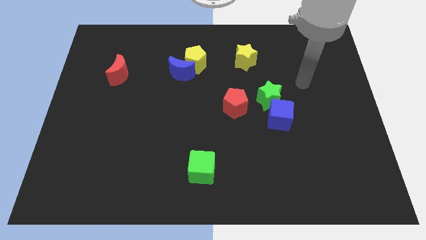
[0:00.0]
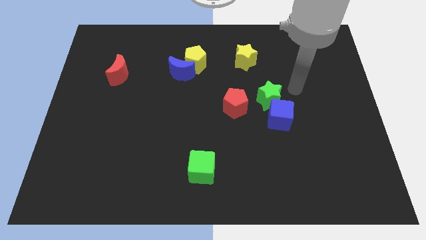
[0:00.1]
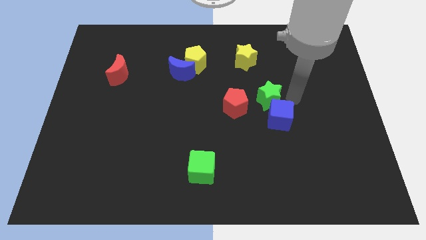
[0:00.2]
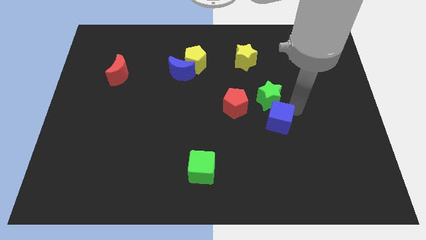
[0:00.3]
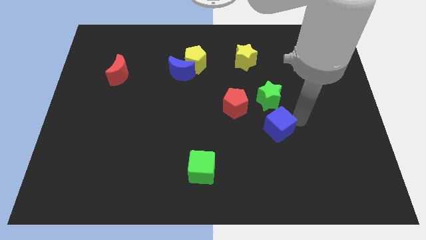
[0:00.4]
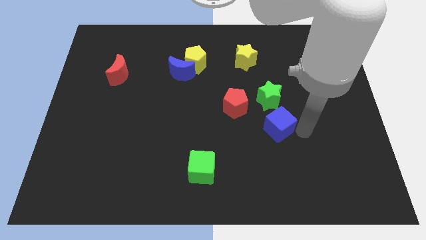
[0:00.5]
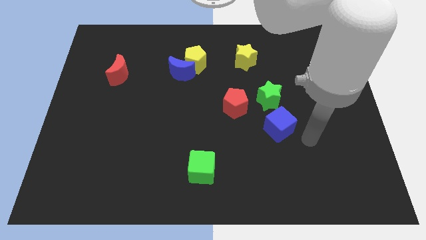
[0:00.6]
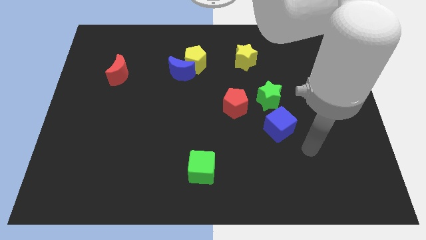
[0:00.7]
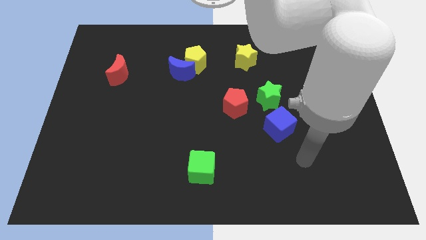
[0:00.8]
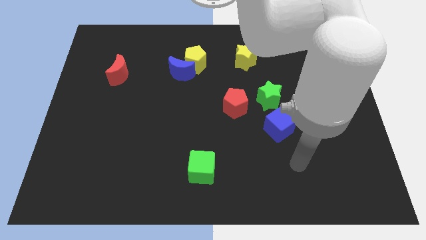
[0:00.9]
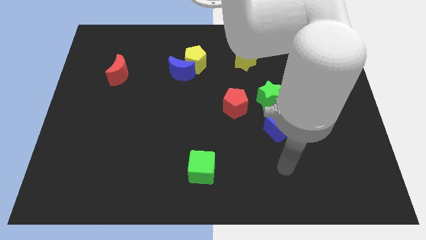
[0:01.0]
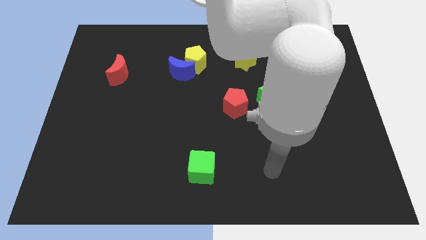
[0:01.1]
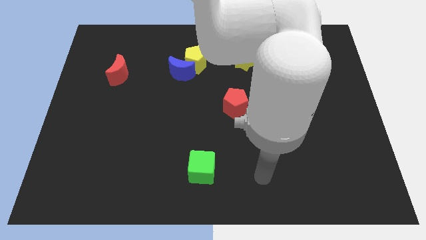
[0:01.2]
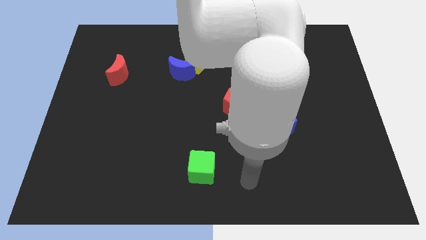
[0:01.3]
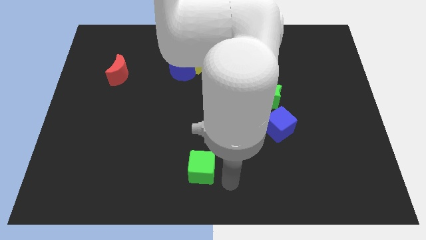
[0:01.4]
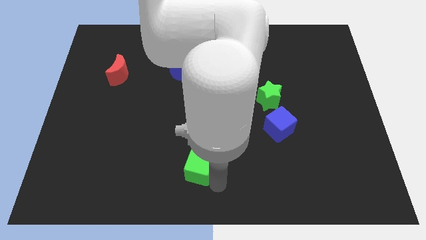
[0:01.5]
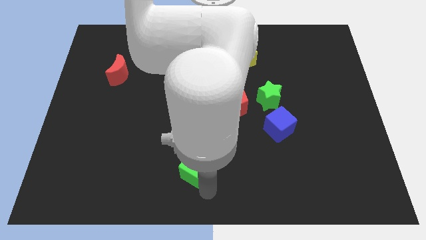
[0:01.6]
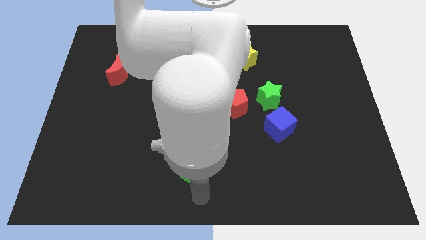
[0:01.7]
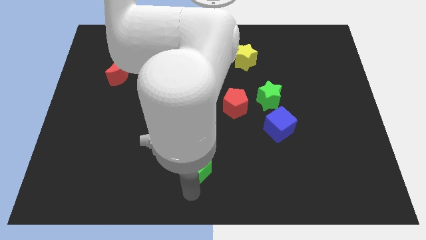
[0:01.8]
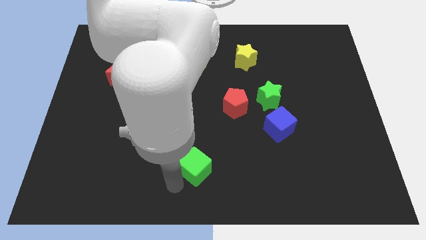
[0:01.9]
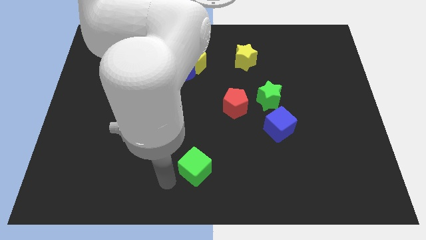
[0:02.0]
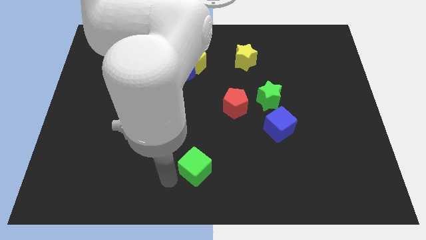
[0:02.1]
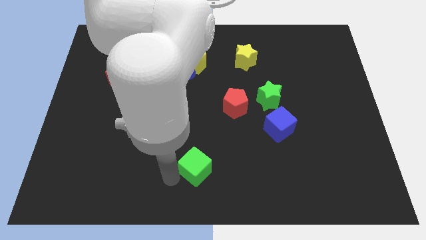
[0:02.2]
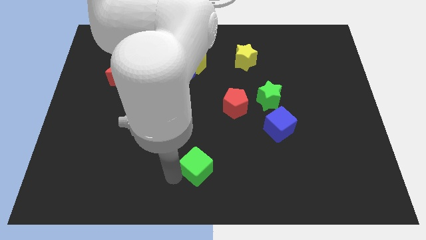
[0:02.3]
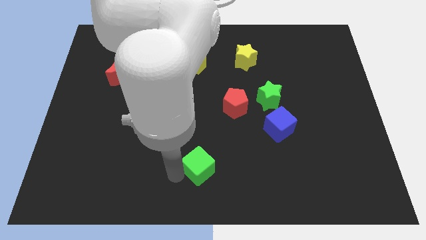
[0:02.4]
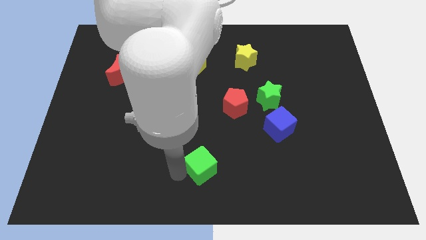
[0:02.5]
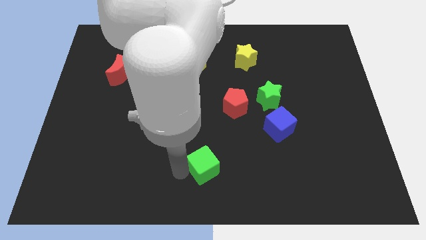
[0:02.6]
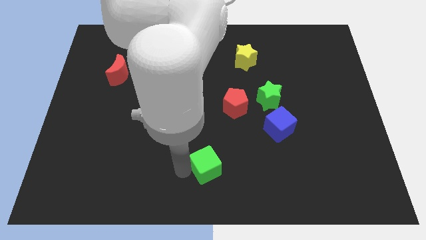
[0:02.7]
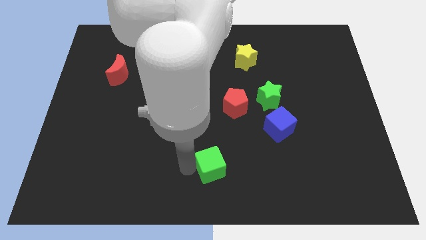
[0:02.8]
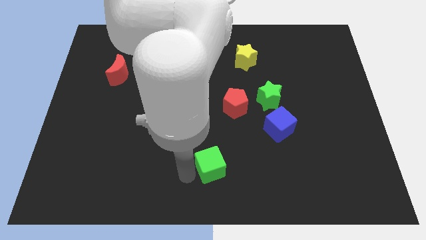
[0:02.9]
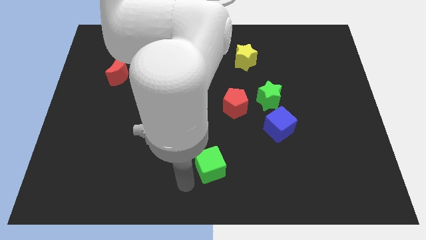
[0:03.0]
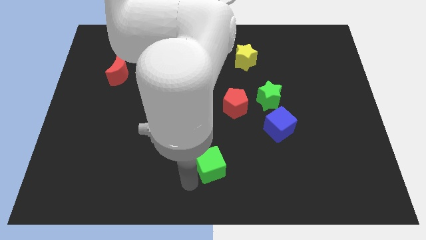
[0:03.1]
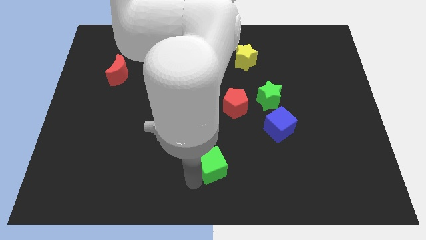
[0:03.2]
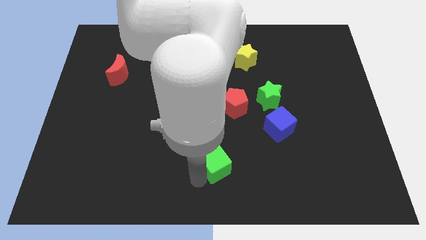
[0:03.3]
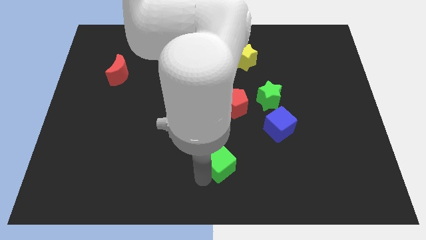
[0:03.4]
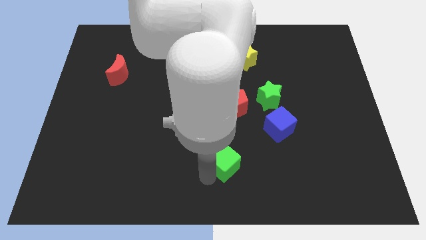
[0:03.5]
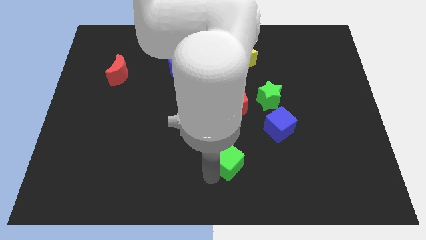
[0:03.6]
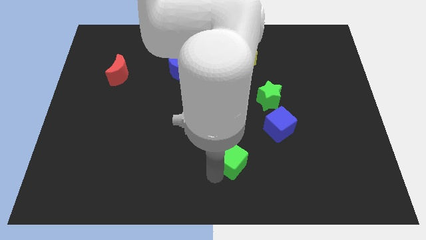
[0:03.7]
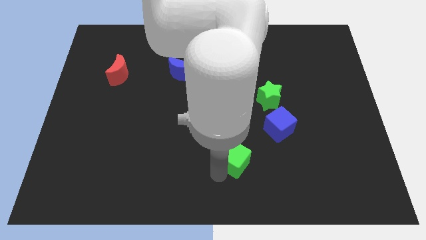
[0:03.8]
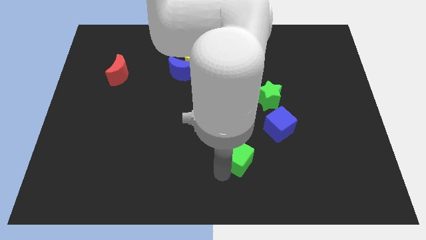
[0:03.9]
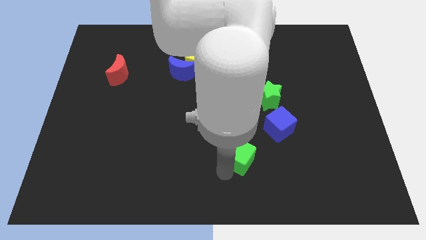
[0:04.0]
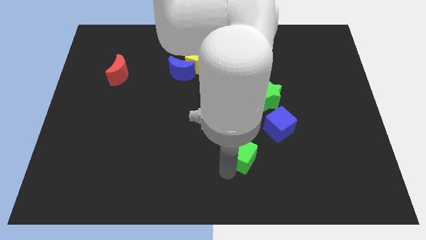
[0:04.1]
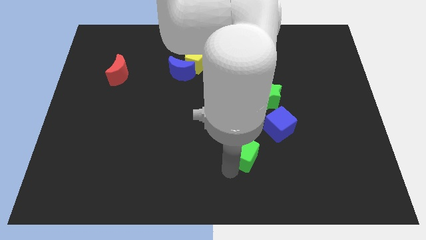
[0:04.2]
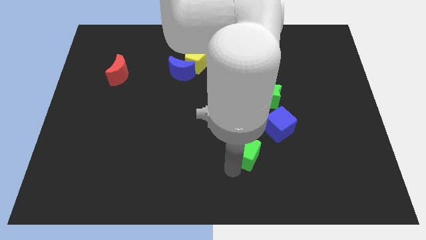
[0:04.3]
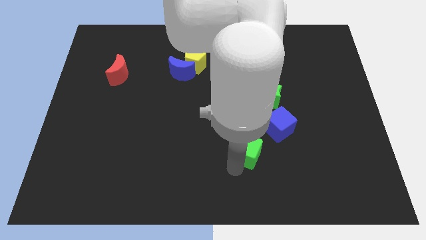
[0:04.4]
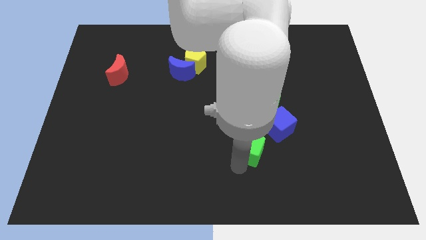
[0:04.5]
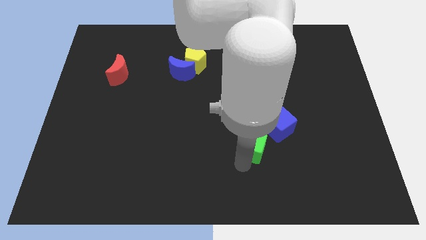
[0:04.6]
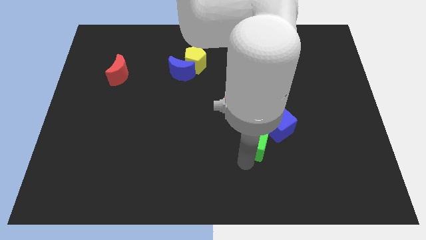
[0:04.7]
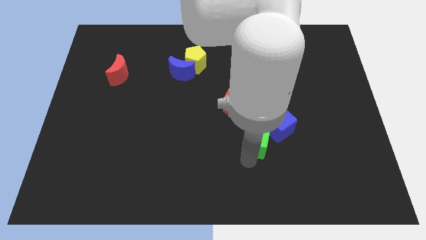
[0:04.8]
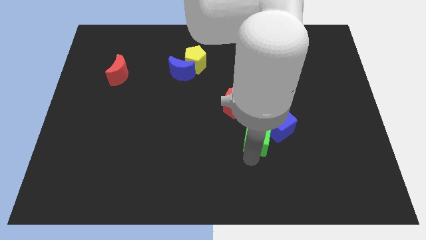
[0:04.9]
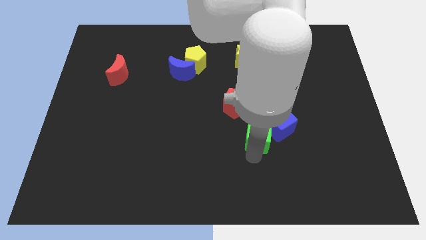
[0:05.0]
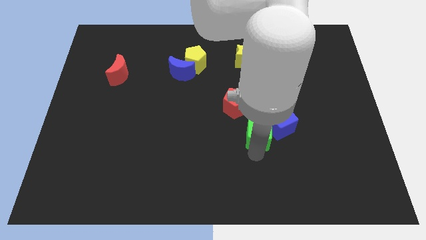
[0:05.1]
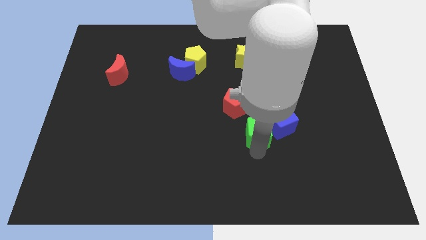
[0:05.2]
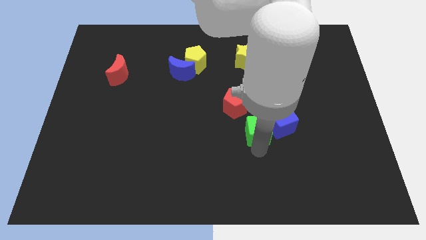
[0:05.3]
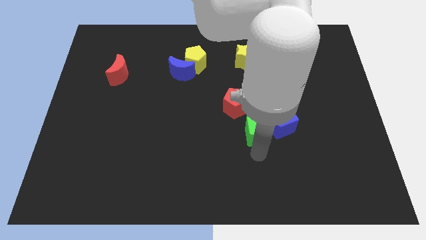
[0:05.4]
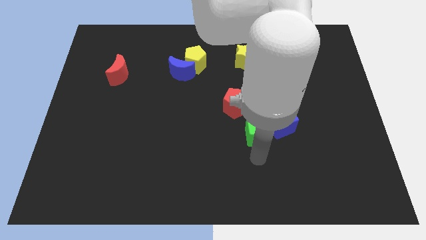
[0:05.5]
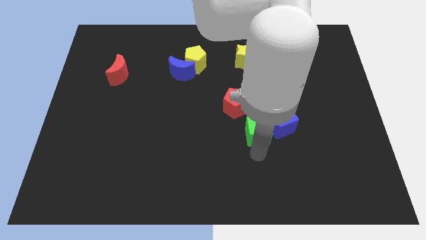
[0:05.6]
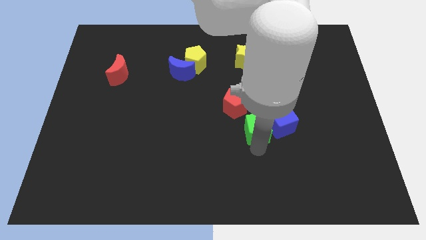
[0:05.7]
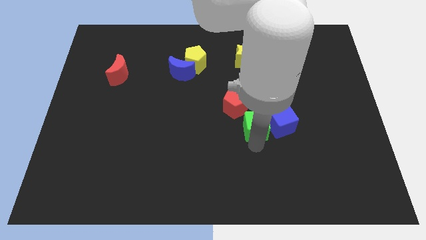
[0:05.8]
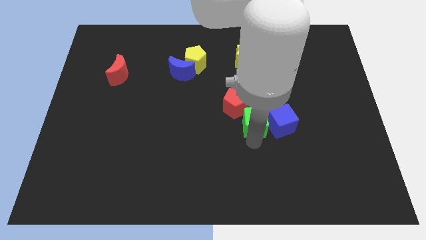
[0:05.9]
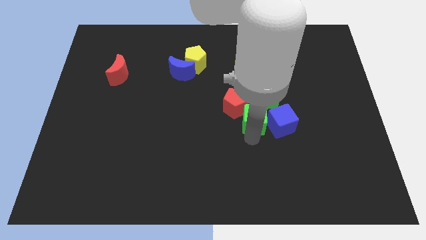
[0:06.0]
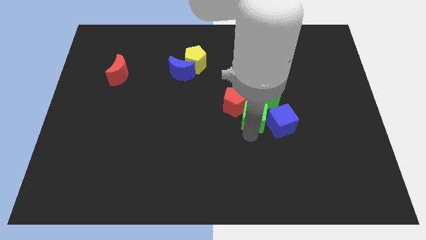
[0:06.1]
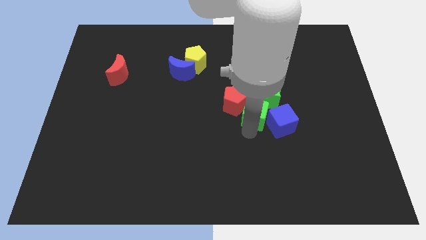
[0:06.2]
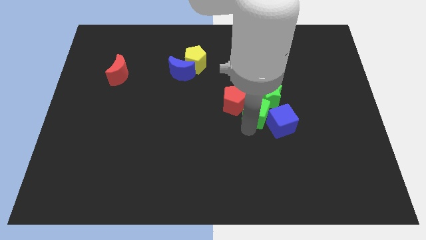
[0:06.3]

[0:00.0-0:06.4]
put the green cube to the green star

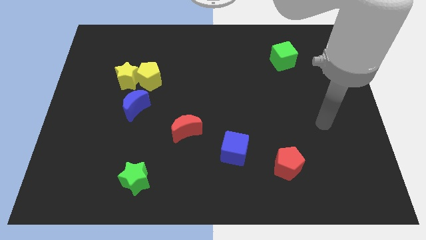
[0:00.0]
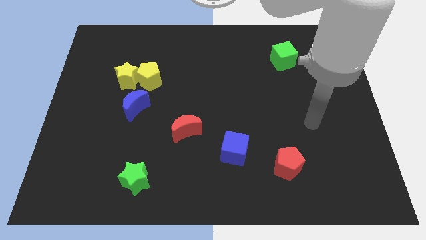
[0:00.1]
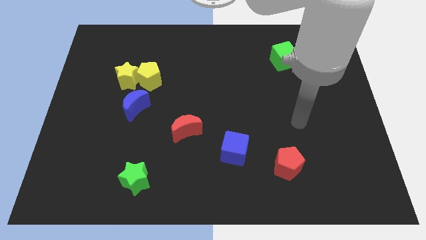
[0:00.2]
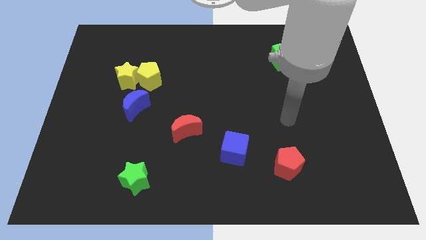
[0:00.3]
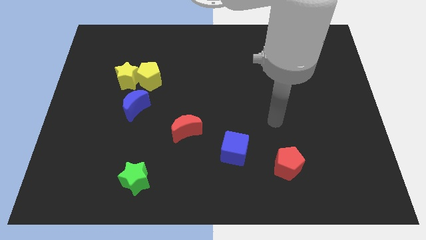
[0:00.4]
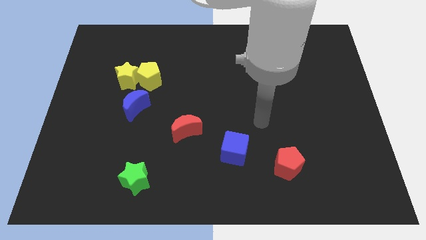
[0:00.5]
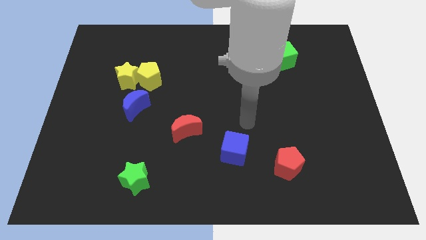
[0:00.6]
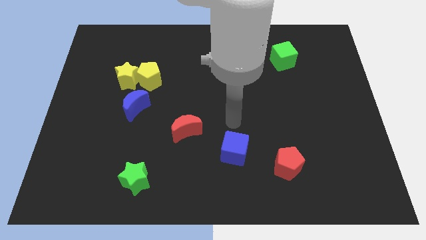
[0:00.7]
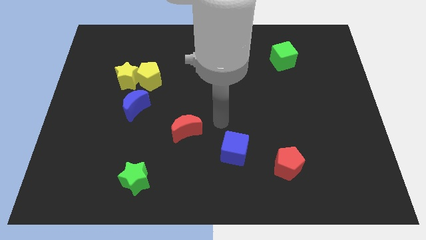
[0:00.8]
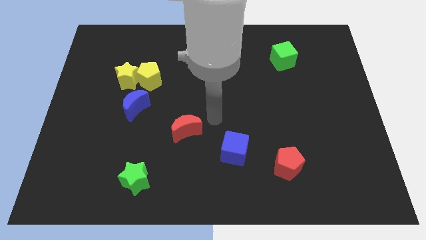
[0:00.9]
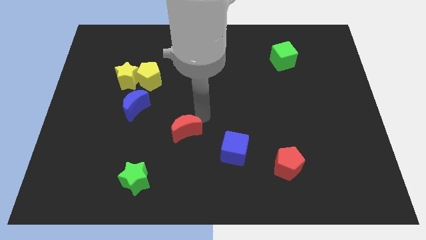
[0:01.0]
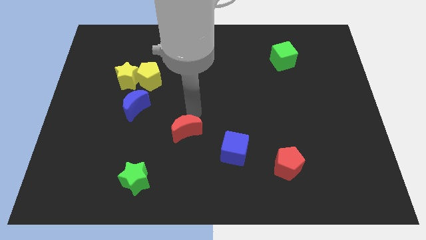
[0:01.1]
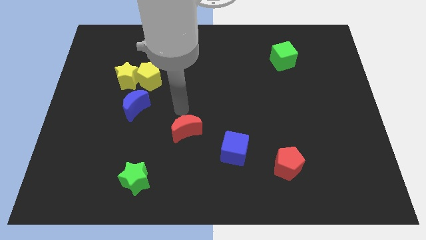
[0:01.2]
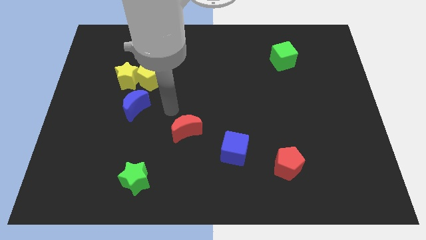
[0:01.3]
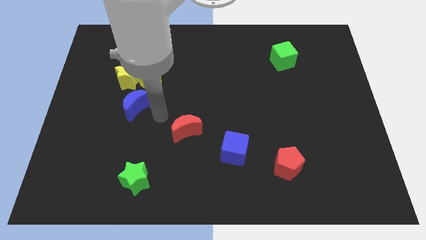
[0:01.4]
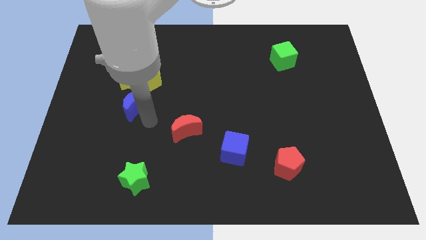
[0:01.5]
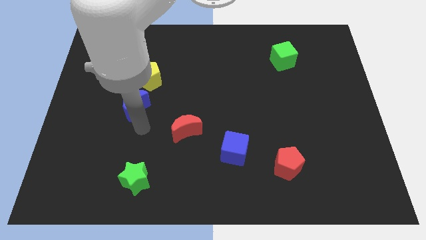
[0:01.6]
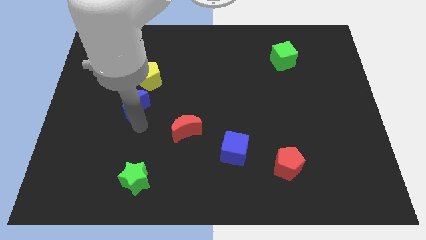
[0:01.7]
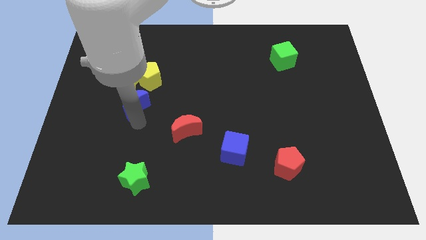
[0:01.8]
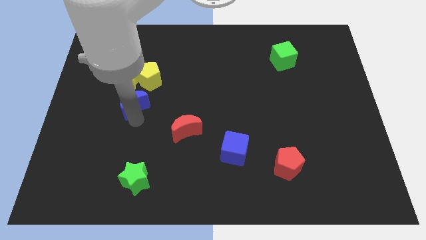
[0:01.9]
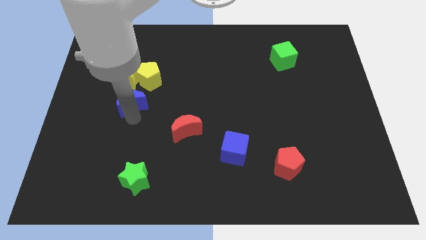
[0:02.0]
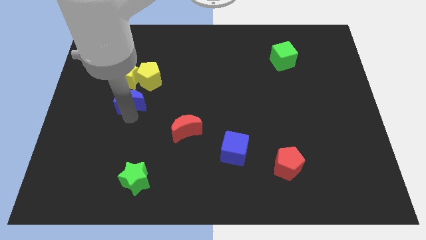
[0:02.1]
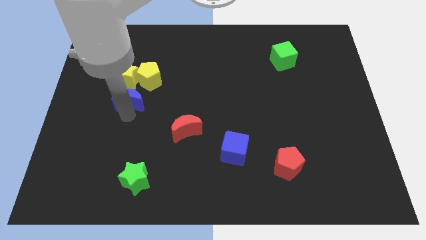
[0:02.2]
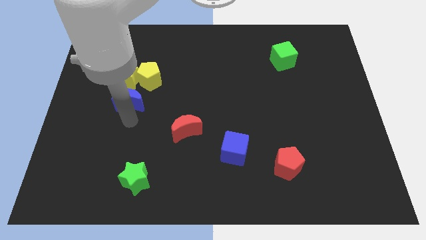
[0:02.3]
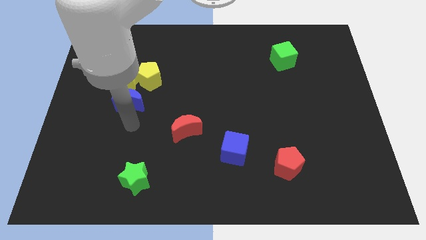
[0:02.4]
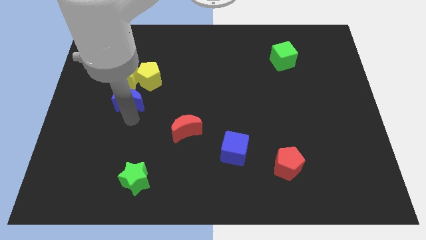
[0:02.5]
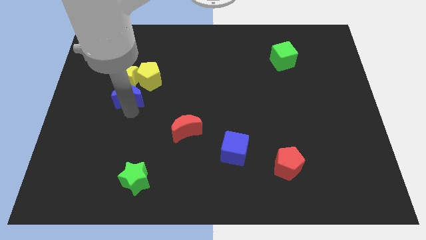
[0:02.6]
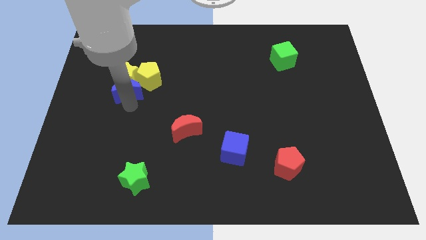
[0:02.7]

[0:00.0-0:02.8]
move the blue moon towards the yellow star
